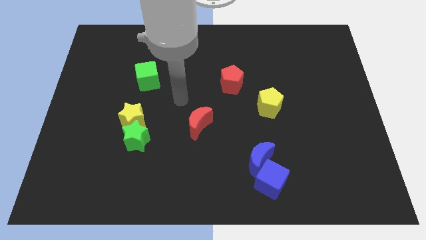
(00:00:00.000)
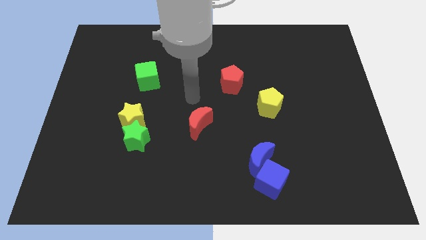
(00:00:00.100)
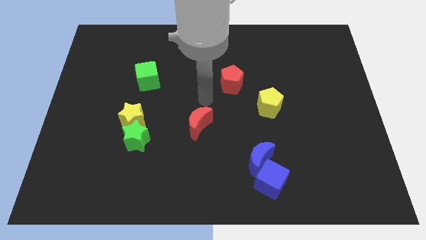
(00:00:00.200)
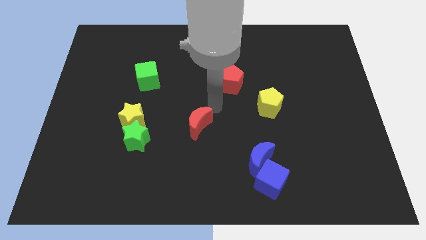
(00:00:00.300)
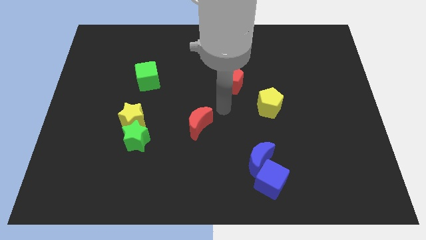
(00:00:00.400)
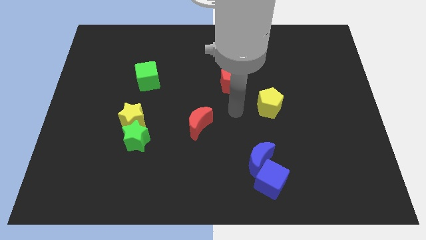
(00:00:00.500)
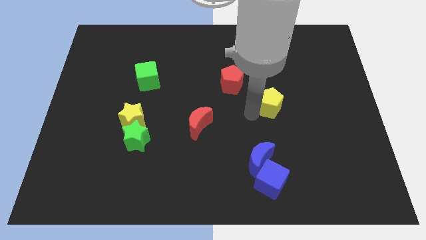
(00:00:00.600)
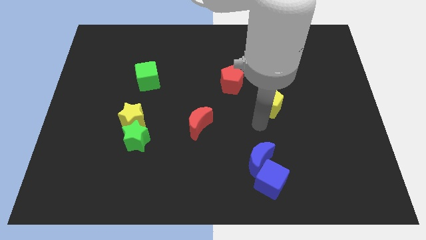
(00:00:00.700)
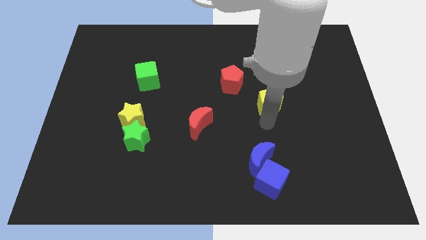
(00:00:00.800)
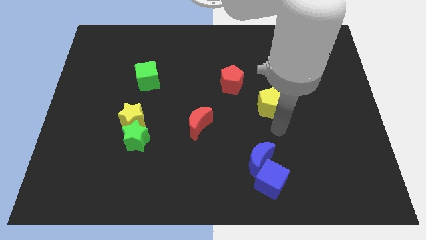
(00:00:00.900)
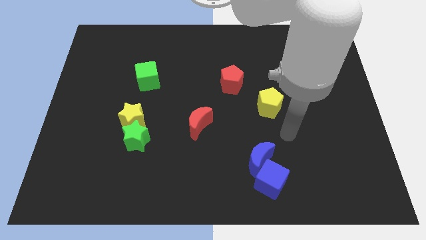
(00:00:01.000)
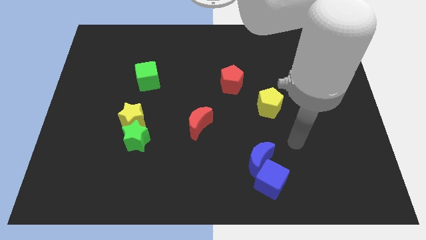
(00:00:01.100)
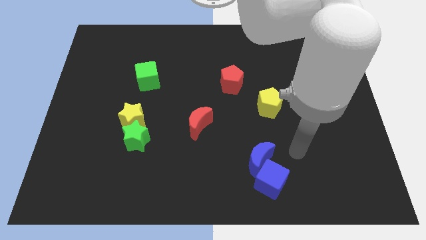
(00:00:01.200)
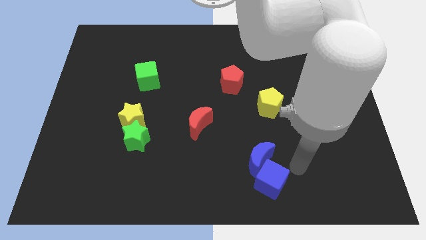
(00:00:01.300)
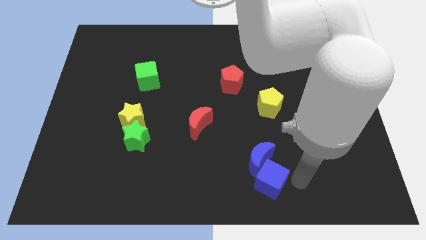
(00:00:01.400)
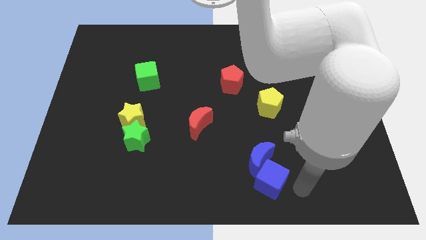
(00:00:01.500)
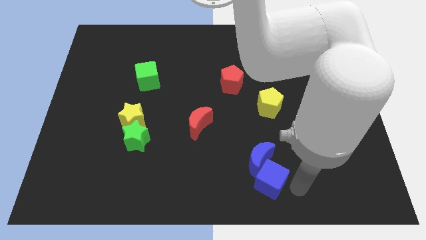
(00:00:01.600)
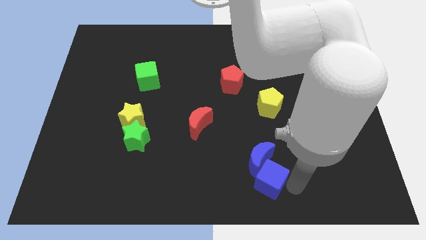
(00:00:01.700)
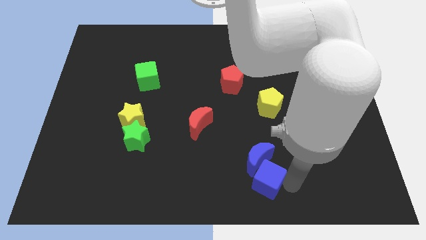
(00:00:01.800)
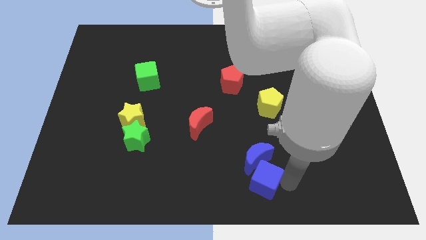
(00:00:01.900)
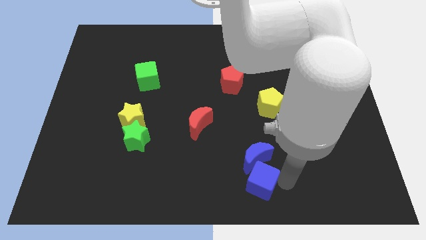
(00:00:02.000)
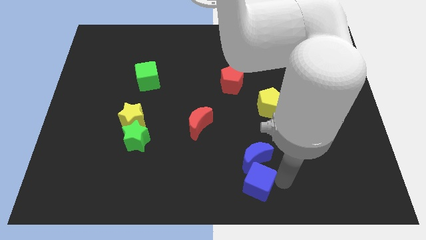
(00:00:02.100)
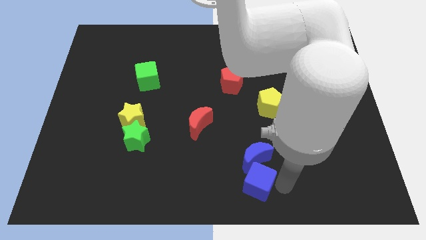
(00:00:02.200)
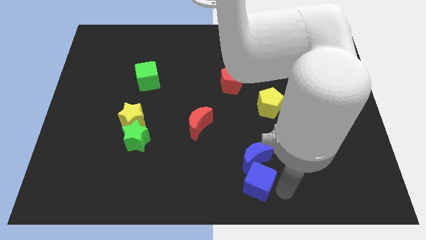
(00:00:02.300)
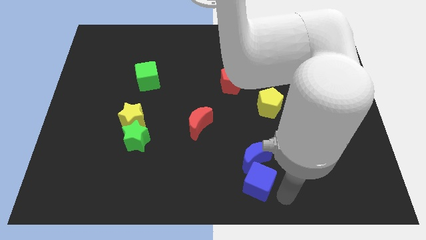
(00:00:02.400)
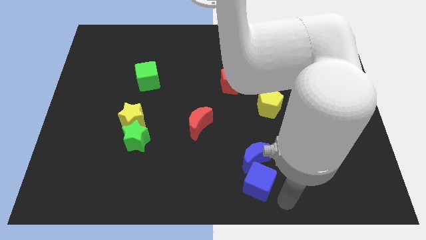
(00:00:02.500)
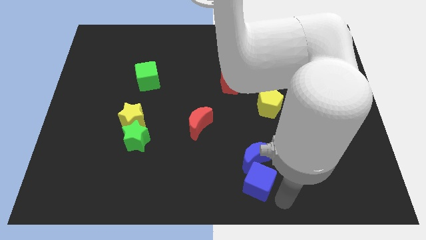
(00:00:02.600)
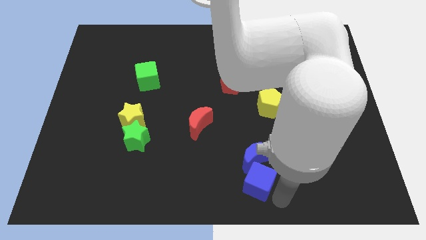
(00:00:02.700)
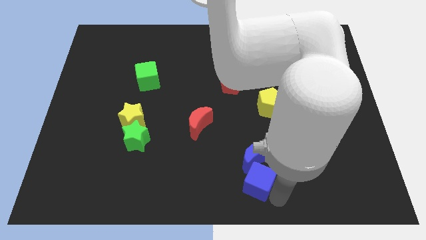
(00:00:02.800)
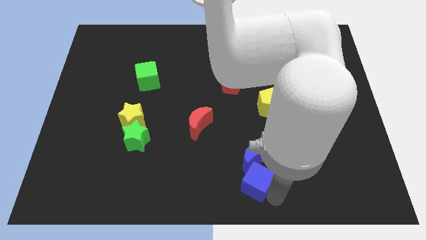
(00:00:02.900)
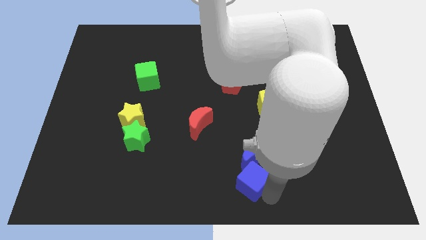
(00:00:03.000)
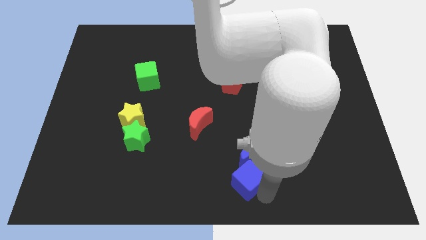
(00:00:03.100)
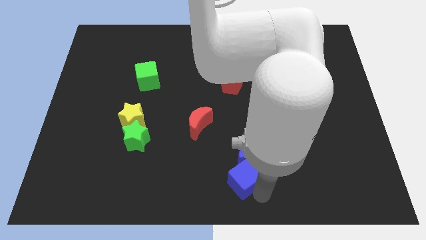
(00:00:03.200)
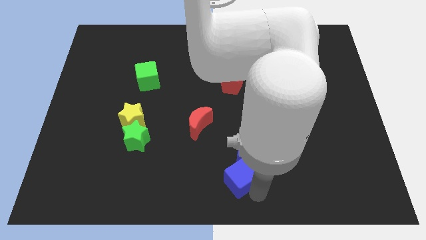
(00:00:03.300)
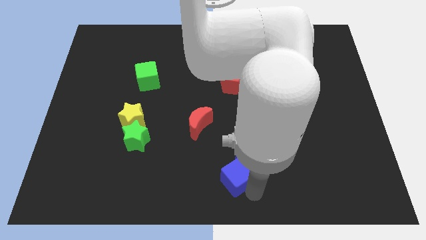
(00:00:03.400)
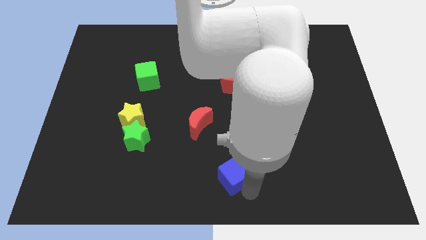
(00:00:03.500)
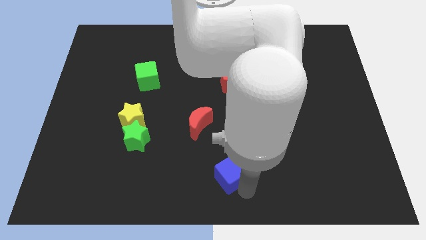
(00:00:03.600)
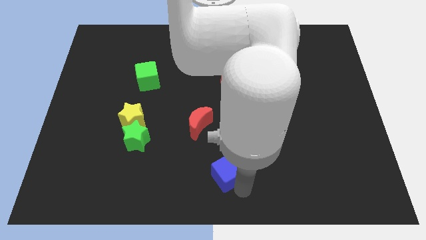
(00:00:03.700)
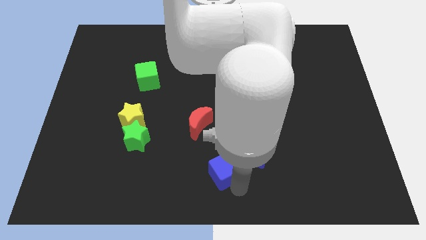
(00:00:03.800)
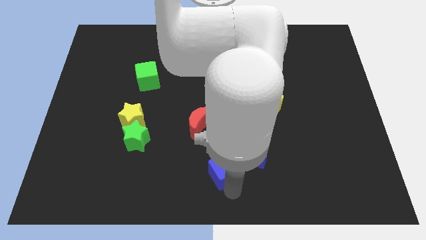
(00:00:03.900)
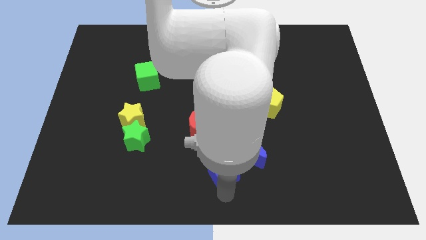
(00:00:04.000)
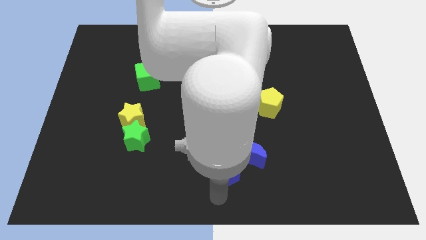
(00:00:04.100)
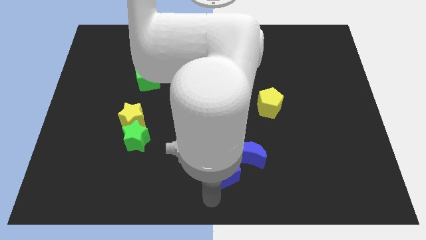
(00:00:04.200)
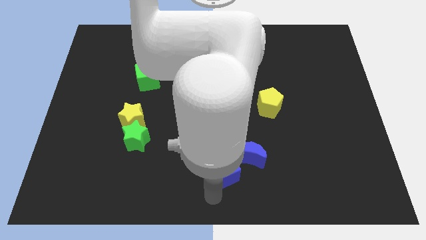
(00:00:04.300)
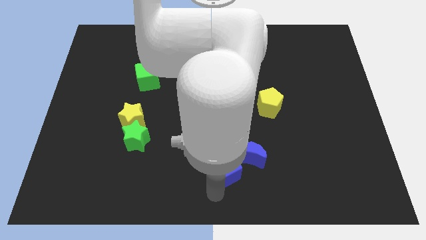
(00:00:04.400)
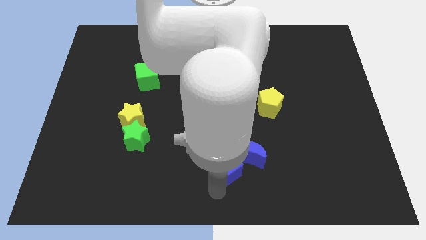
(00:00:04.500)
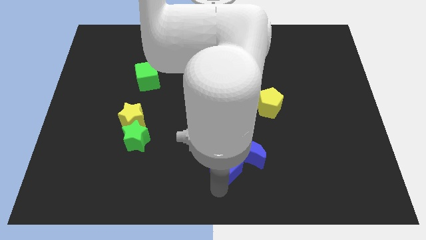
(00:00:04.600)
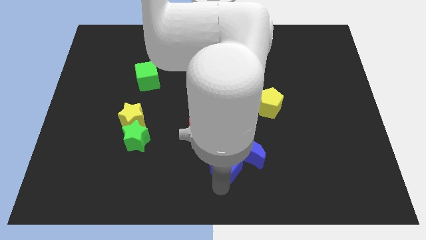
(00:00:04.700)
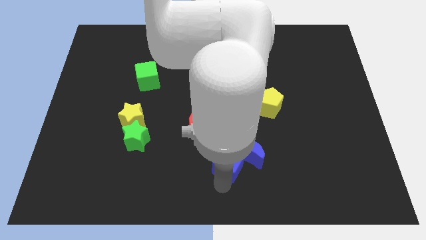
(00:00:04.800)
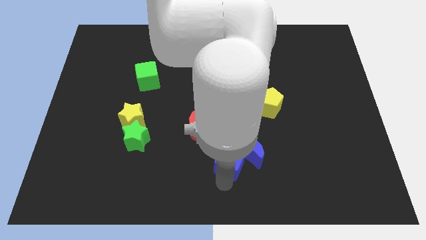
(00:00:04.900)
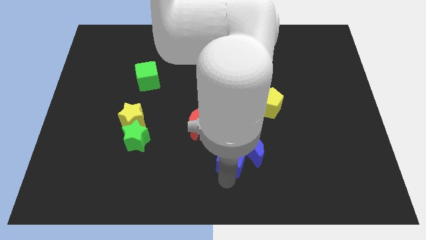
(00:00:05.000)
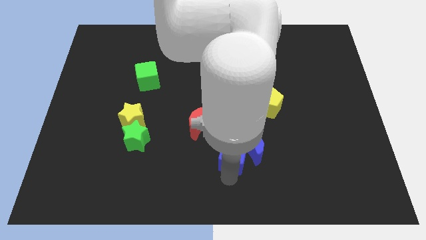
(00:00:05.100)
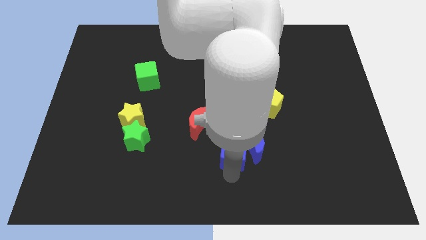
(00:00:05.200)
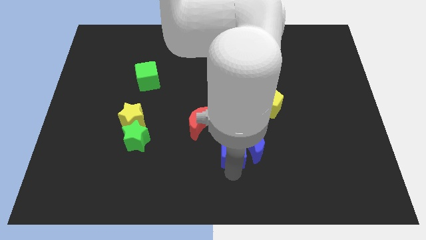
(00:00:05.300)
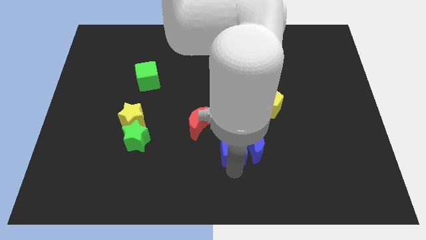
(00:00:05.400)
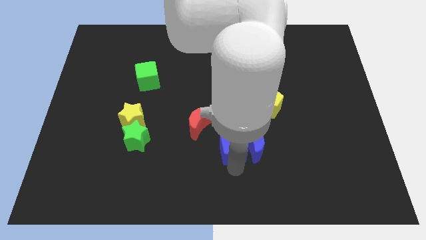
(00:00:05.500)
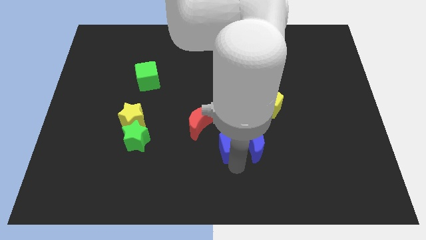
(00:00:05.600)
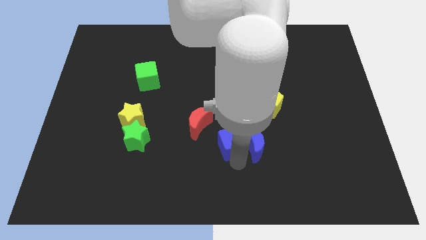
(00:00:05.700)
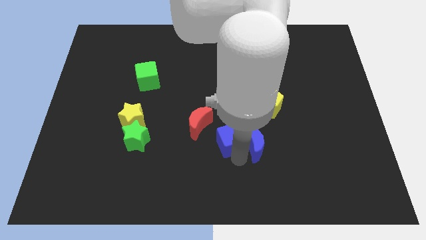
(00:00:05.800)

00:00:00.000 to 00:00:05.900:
slide the blue cube to the center
